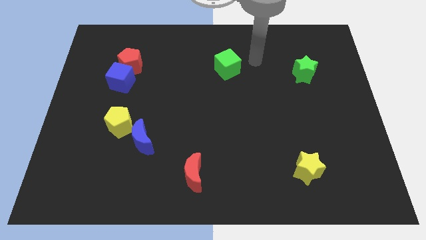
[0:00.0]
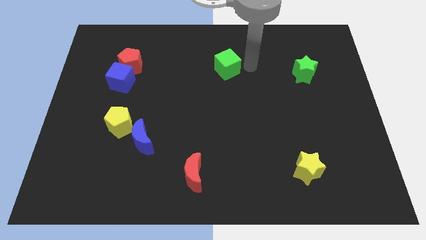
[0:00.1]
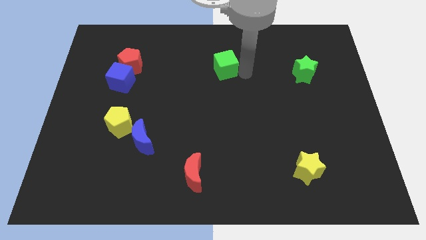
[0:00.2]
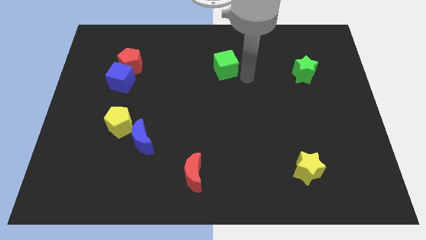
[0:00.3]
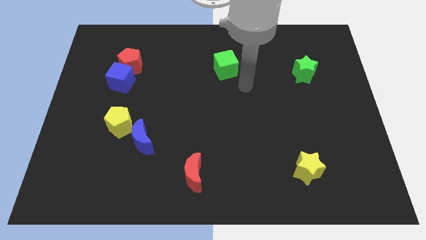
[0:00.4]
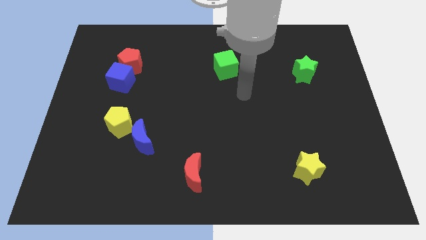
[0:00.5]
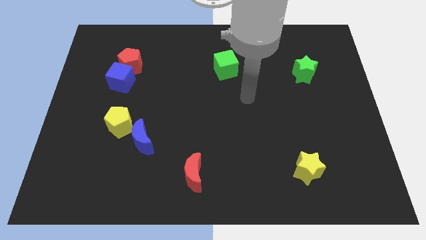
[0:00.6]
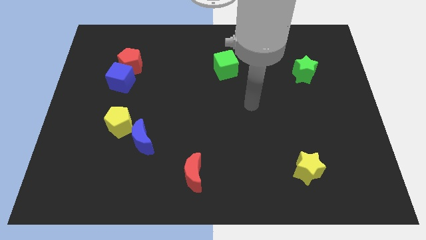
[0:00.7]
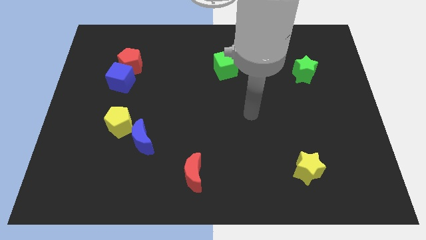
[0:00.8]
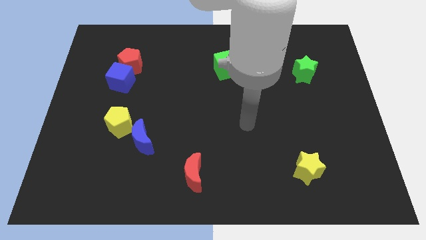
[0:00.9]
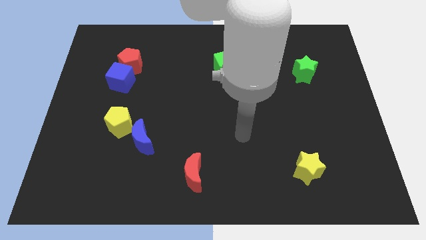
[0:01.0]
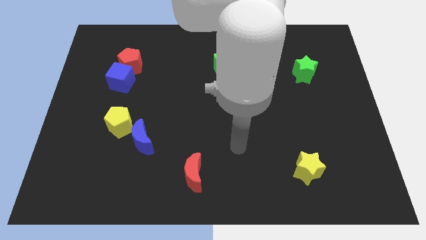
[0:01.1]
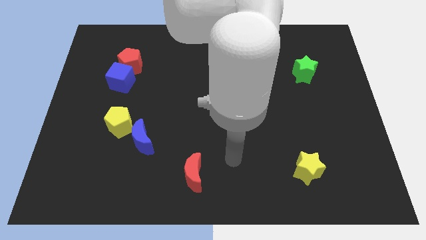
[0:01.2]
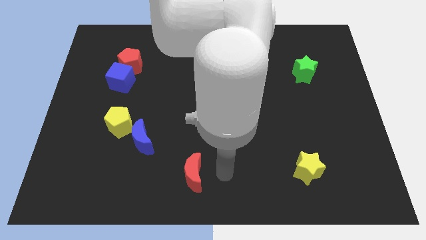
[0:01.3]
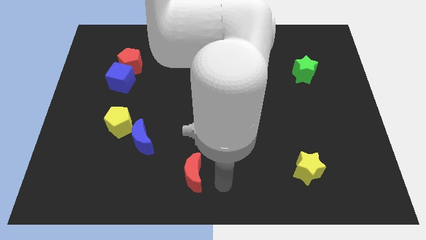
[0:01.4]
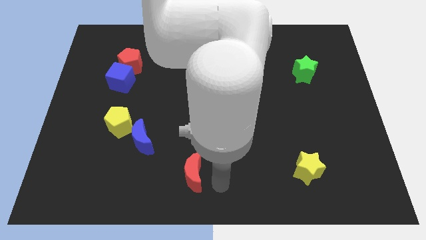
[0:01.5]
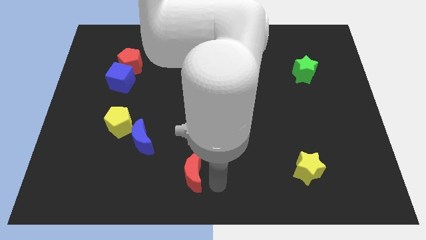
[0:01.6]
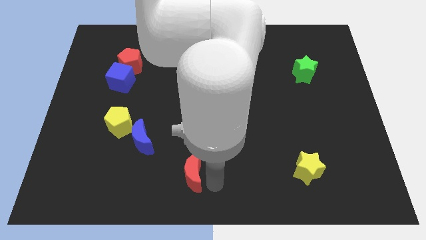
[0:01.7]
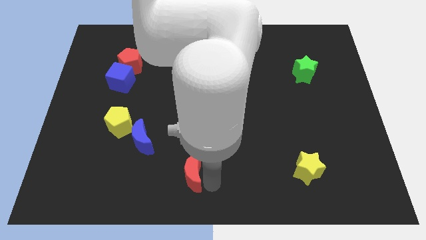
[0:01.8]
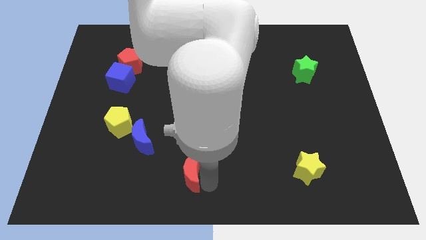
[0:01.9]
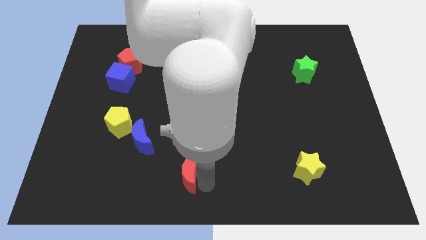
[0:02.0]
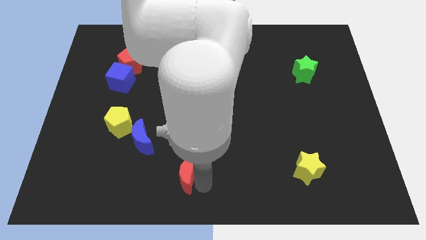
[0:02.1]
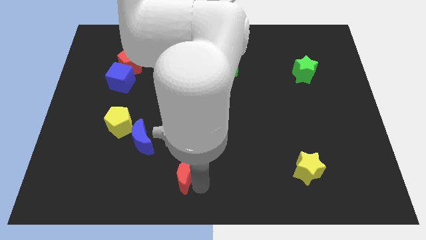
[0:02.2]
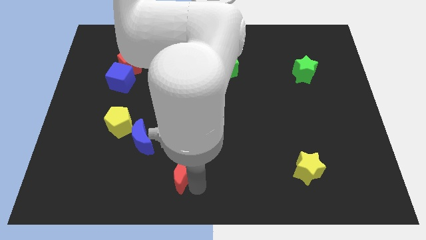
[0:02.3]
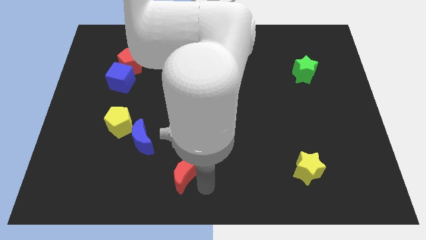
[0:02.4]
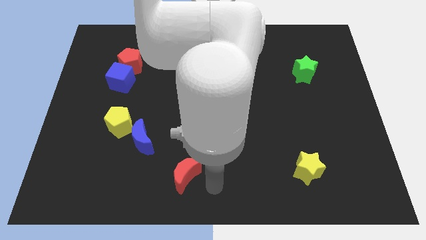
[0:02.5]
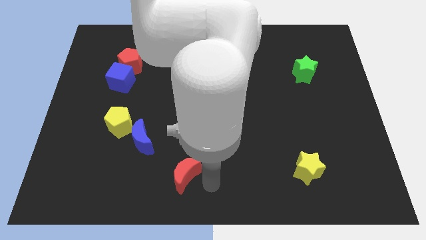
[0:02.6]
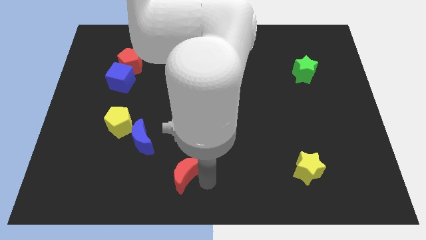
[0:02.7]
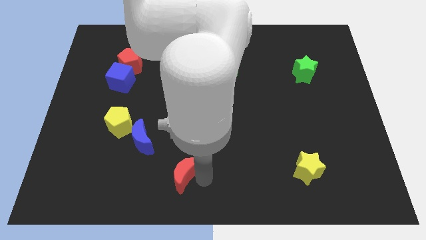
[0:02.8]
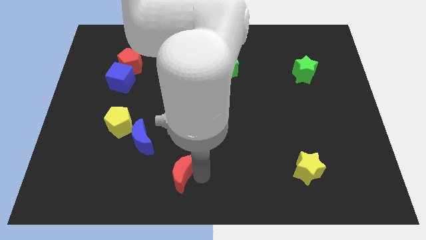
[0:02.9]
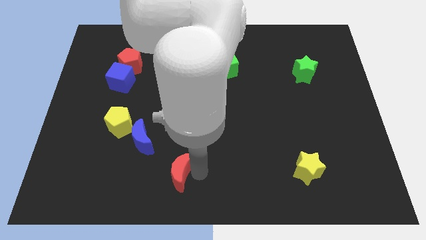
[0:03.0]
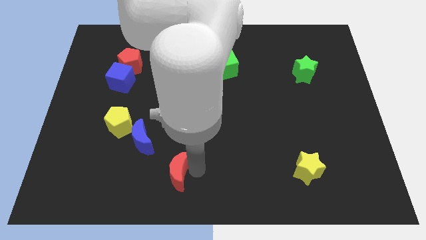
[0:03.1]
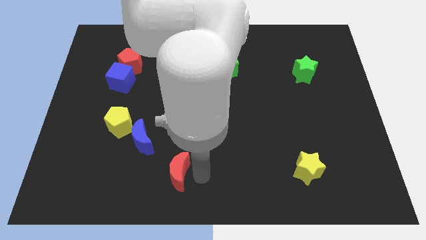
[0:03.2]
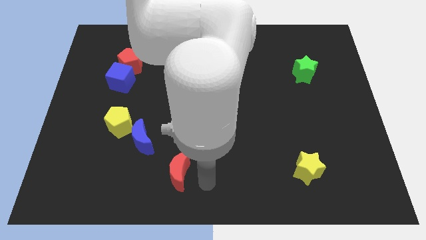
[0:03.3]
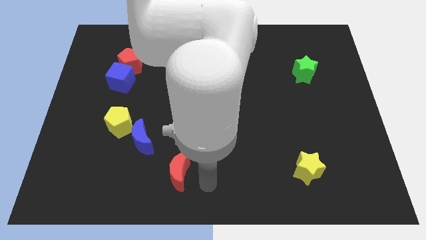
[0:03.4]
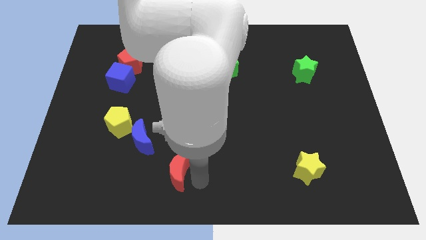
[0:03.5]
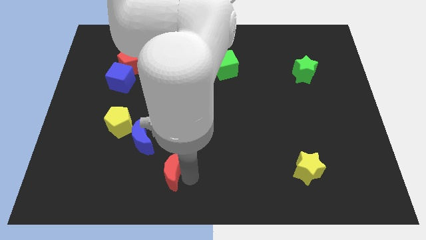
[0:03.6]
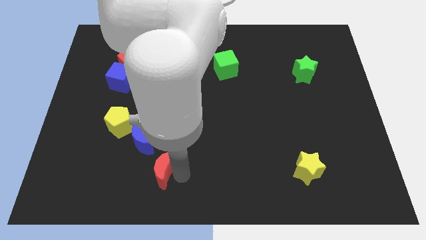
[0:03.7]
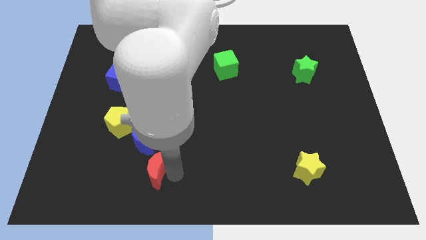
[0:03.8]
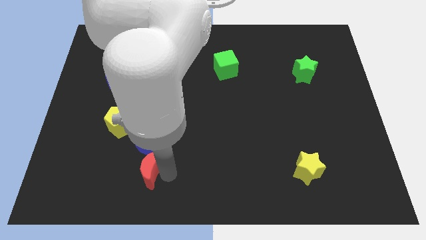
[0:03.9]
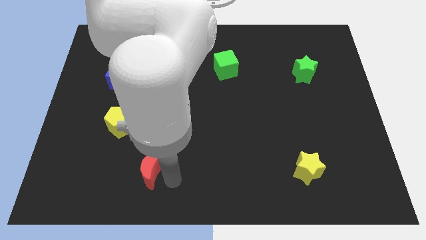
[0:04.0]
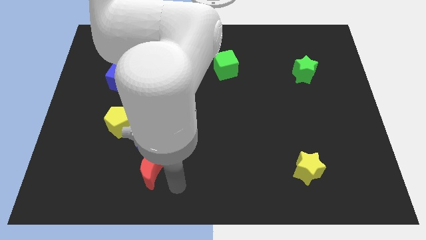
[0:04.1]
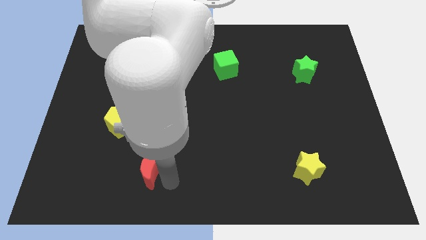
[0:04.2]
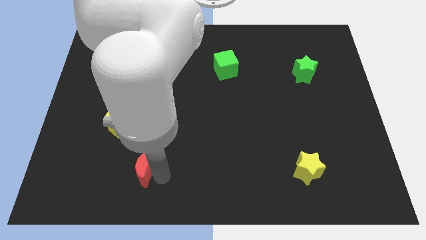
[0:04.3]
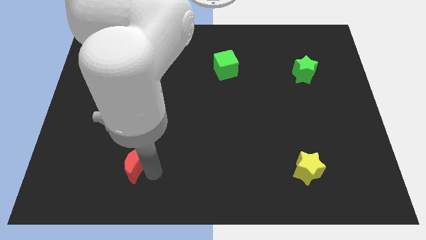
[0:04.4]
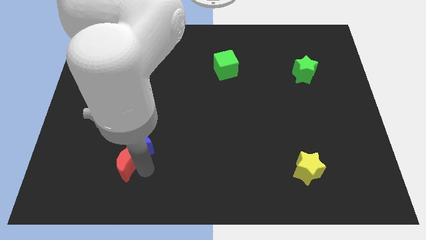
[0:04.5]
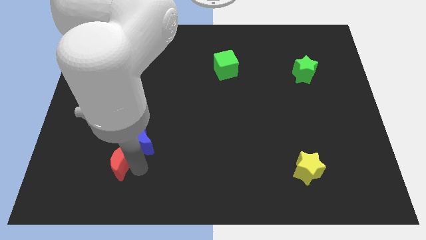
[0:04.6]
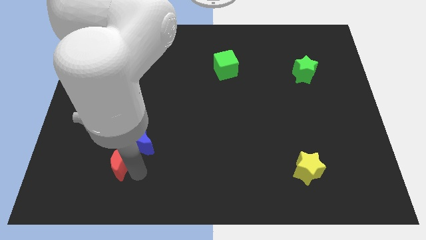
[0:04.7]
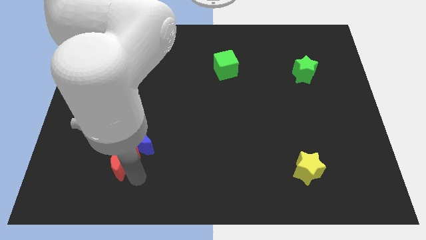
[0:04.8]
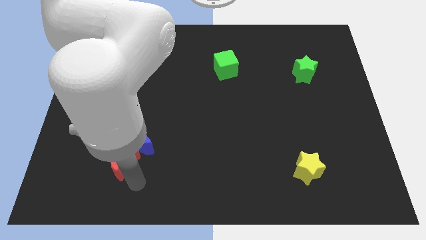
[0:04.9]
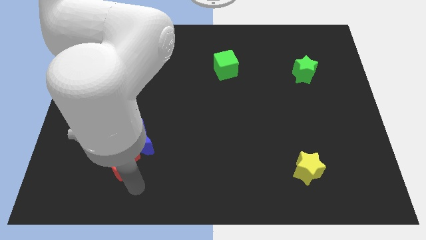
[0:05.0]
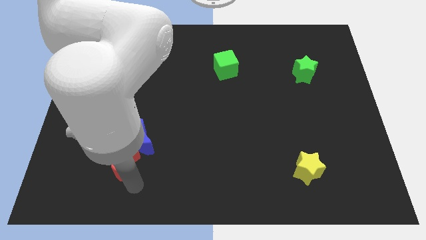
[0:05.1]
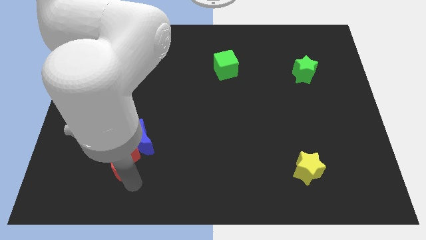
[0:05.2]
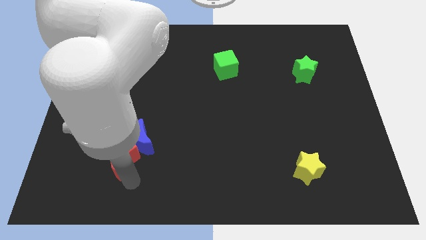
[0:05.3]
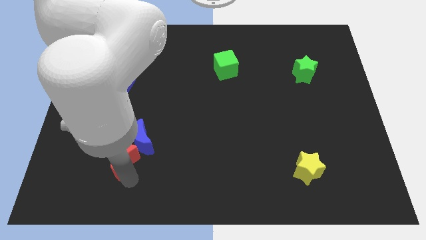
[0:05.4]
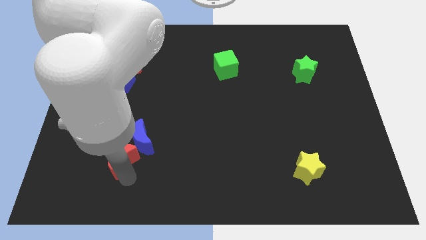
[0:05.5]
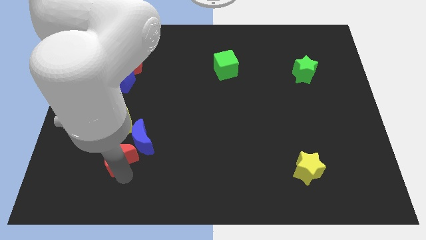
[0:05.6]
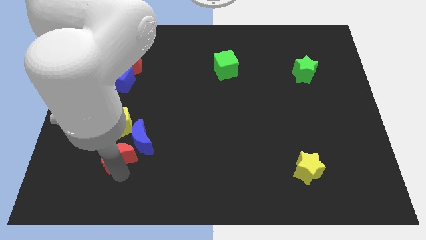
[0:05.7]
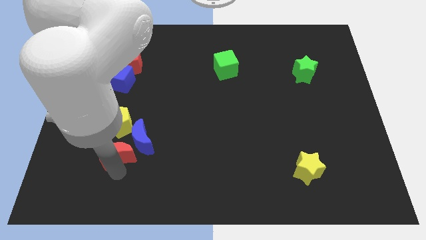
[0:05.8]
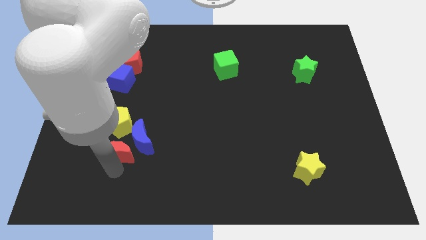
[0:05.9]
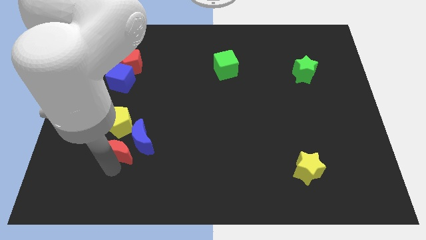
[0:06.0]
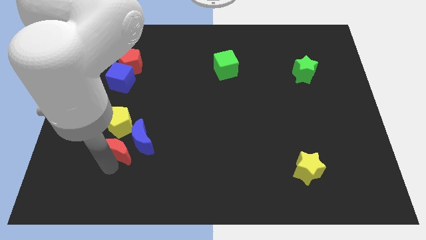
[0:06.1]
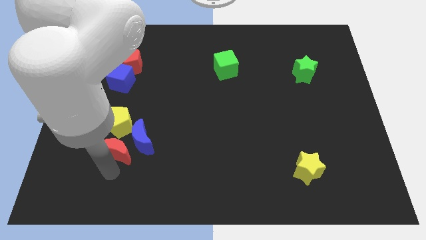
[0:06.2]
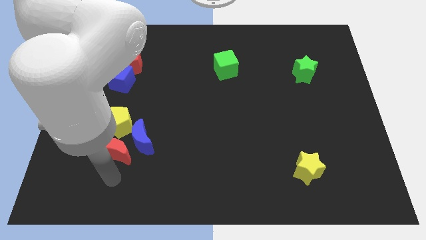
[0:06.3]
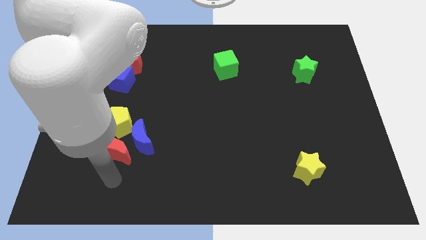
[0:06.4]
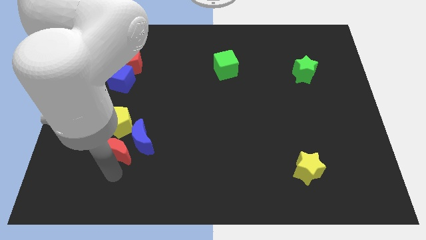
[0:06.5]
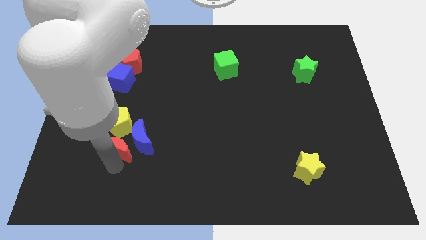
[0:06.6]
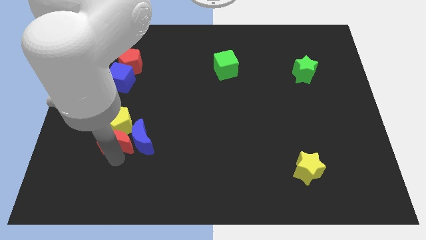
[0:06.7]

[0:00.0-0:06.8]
push the red moon next to the yellow pentagon

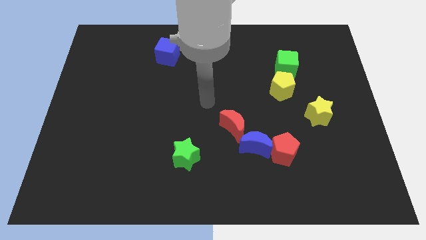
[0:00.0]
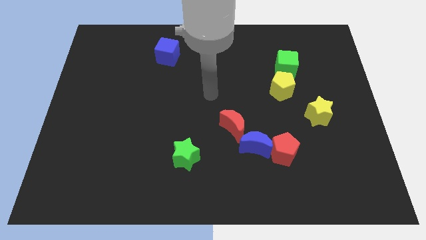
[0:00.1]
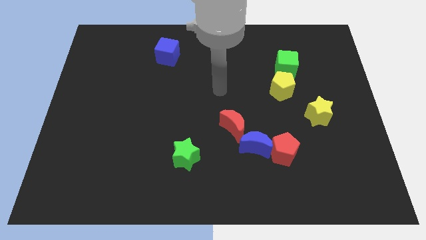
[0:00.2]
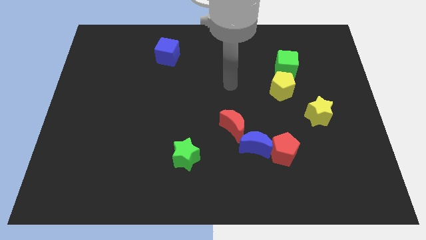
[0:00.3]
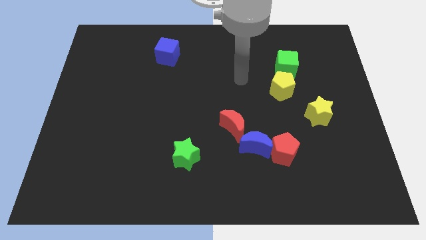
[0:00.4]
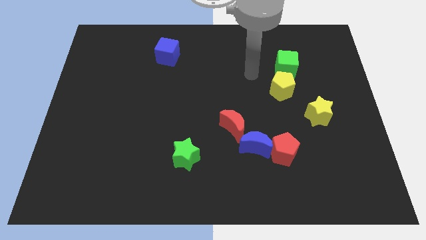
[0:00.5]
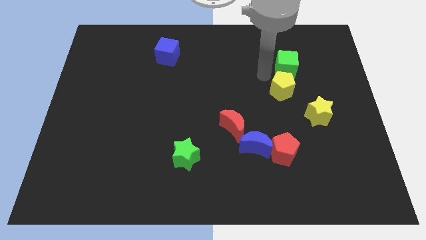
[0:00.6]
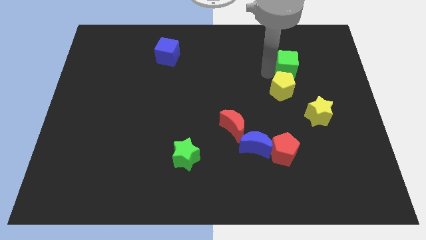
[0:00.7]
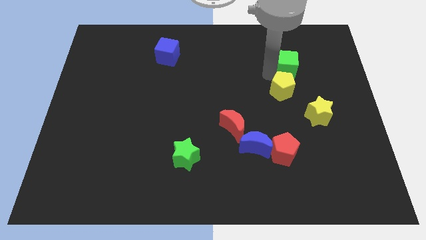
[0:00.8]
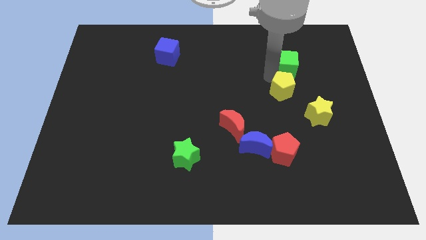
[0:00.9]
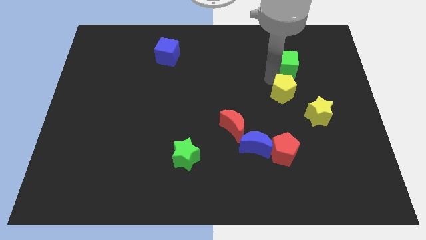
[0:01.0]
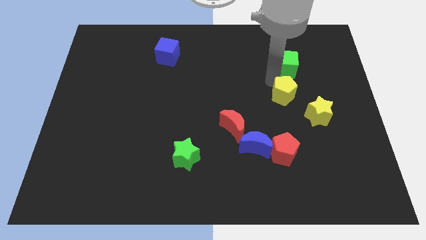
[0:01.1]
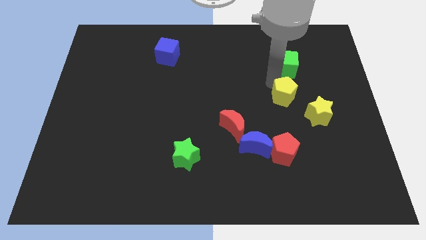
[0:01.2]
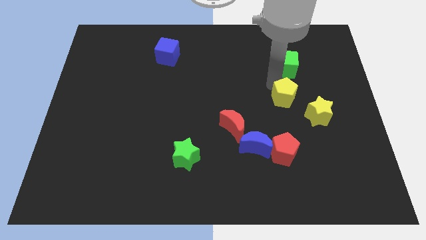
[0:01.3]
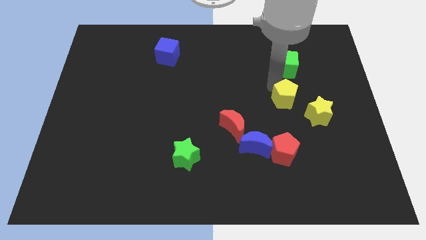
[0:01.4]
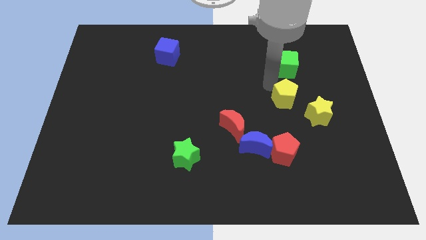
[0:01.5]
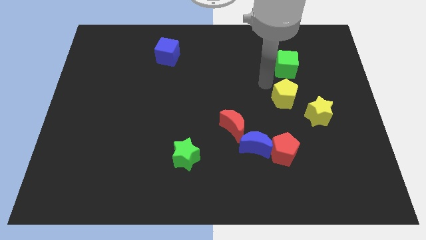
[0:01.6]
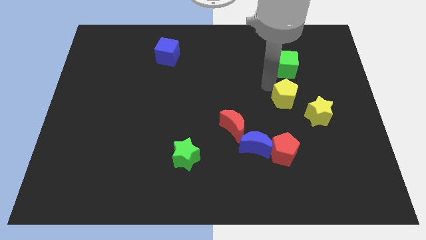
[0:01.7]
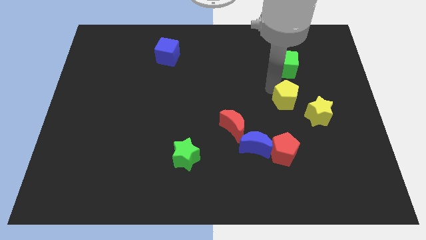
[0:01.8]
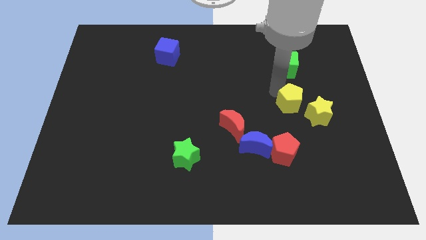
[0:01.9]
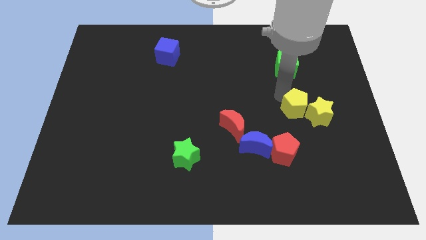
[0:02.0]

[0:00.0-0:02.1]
slide the yellow pentagon to the yellow star
